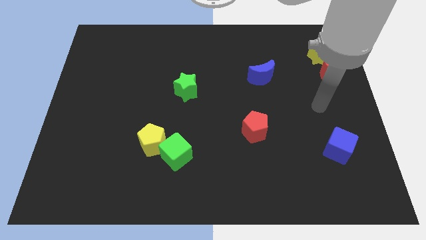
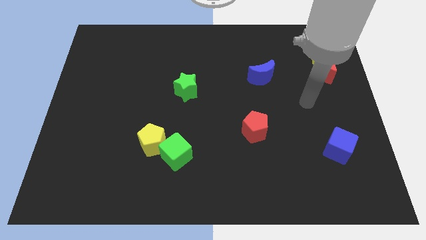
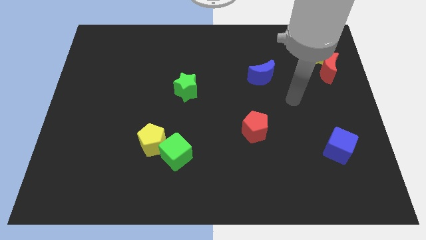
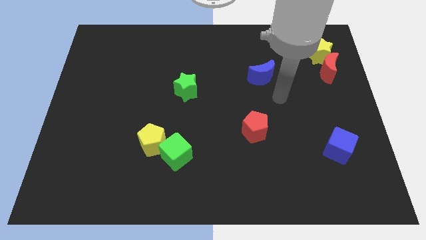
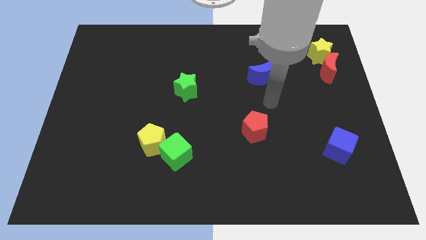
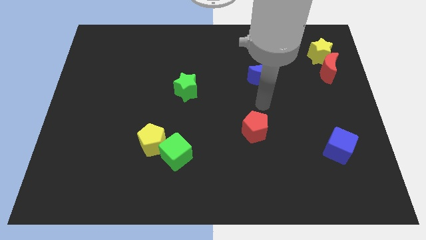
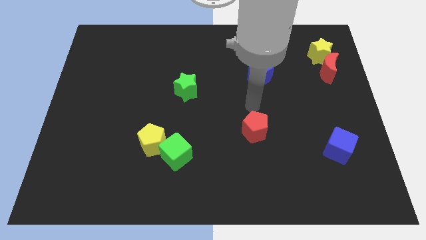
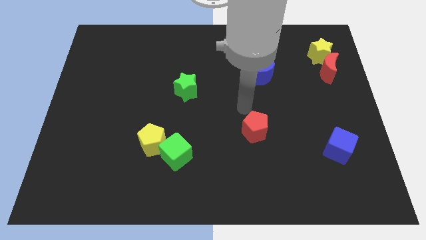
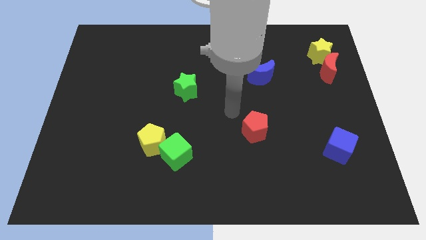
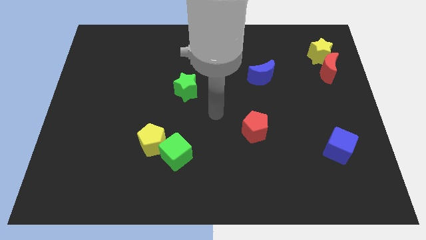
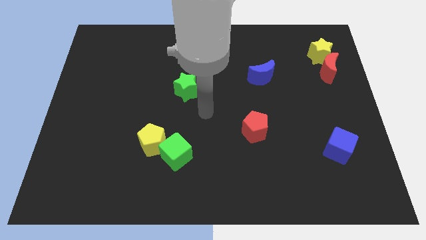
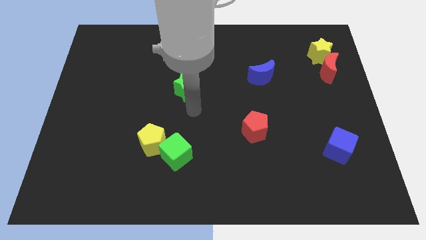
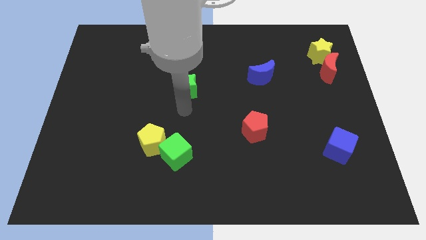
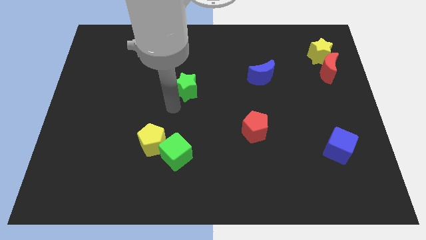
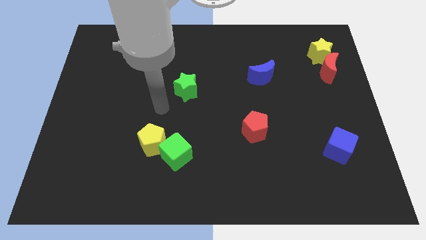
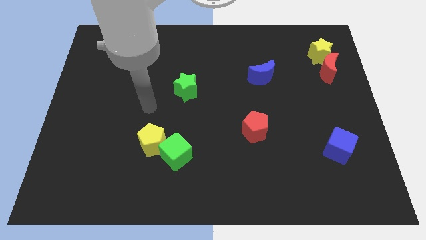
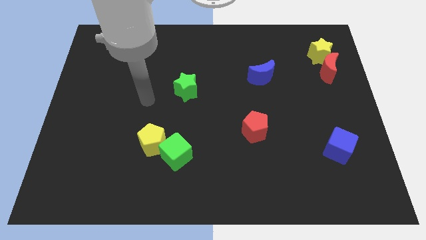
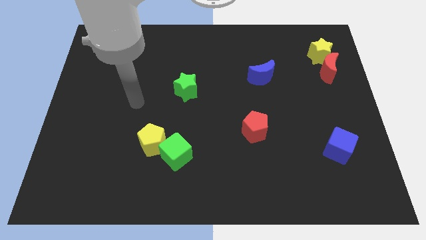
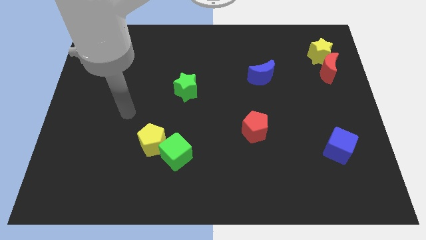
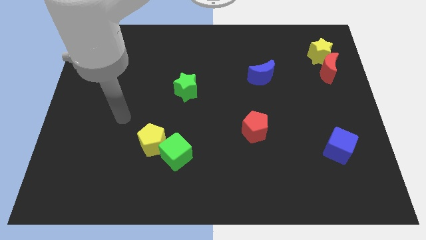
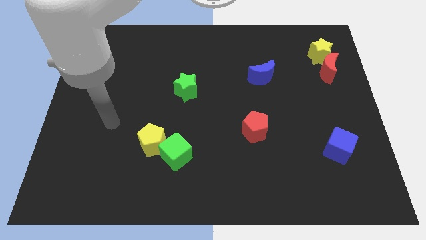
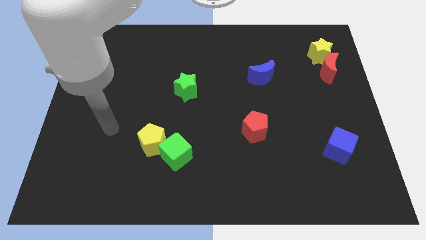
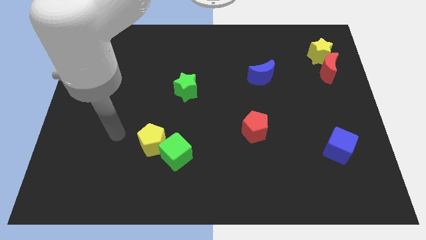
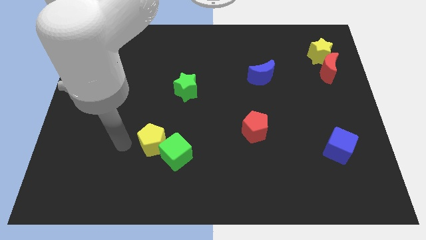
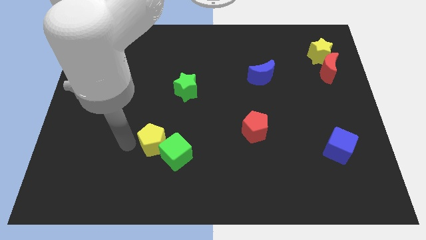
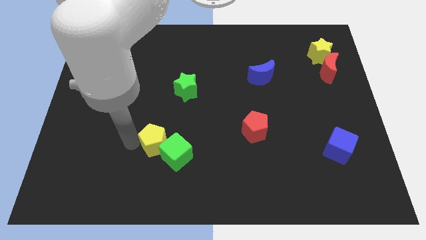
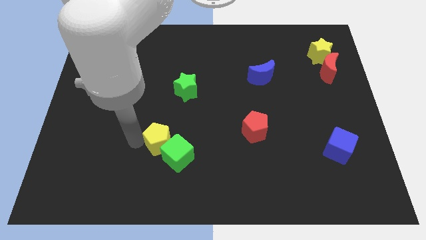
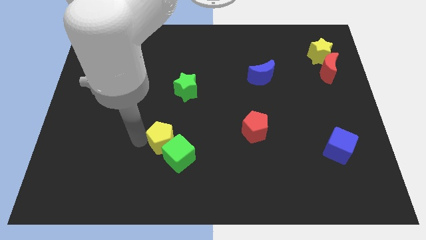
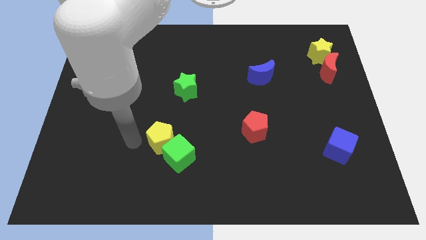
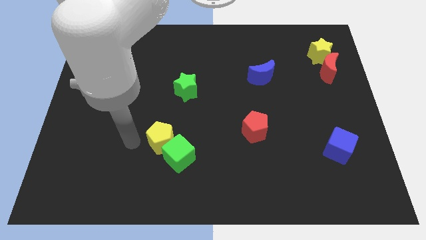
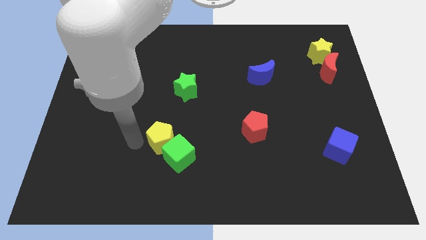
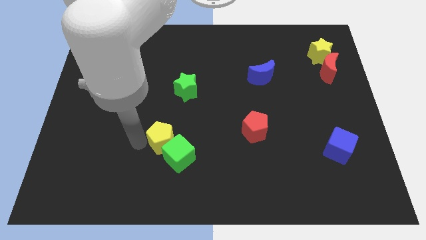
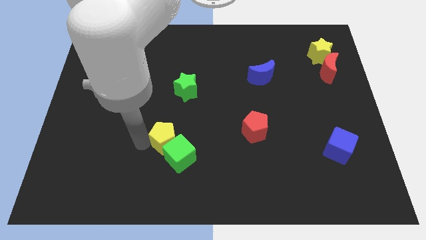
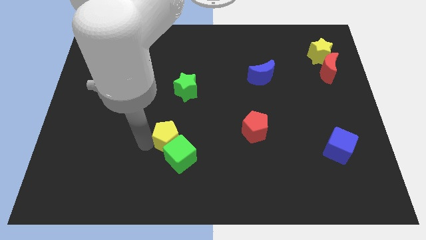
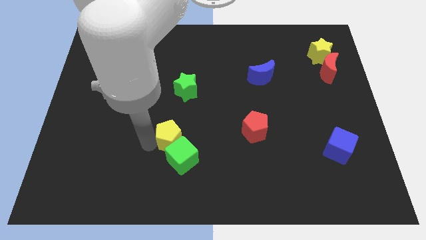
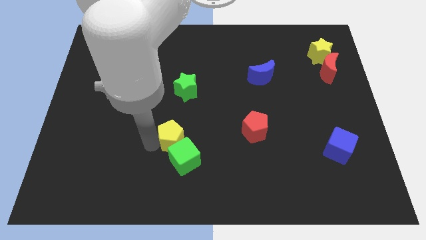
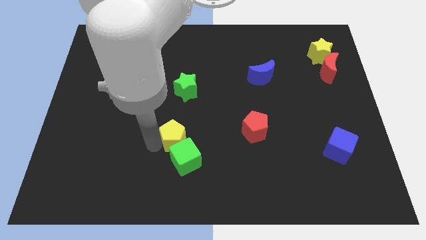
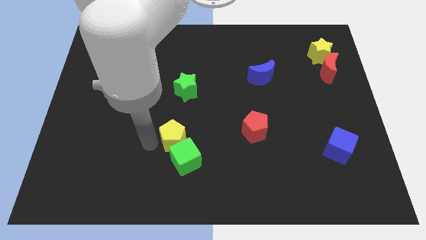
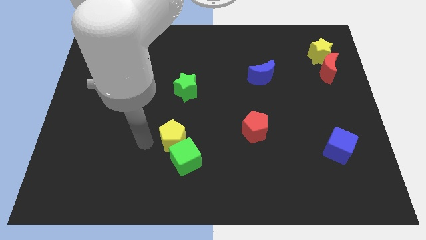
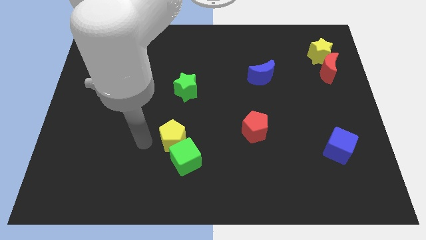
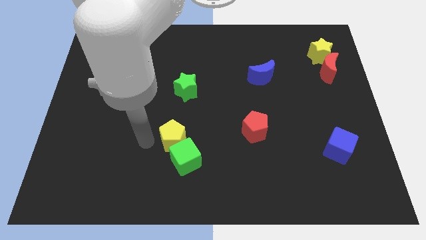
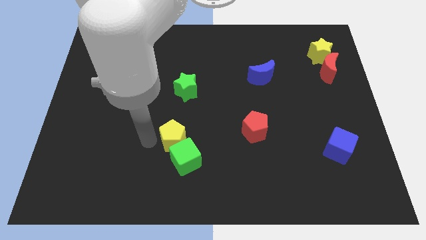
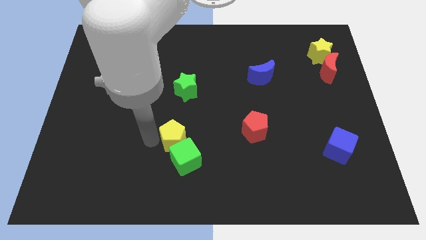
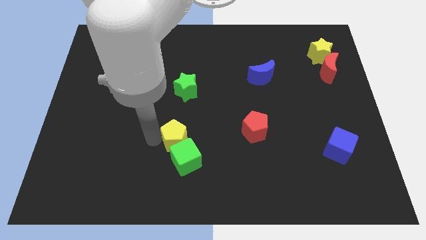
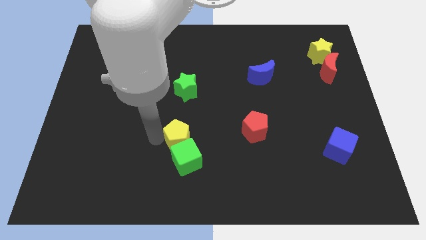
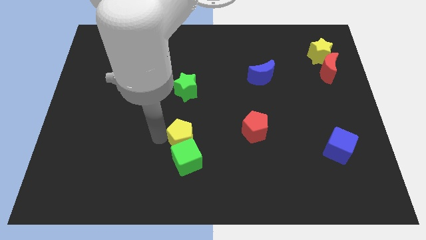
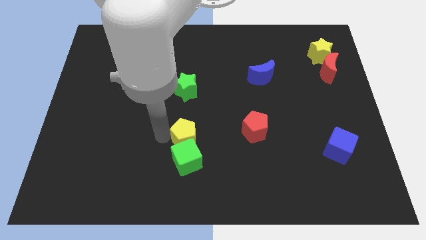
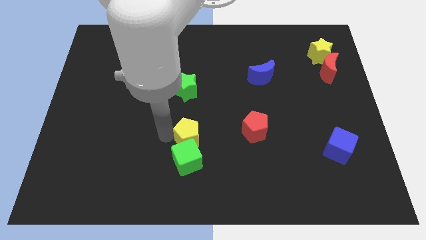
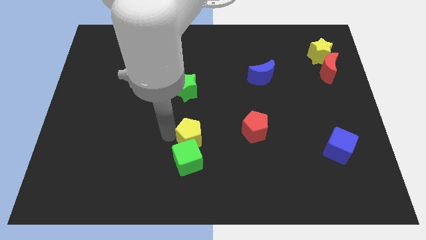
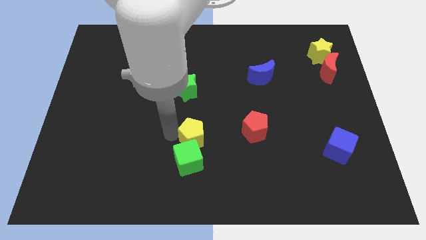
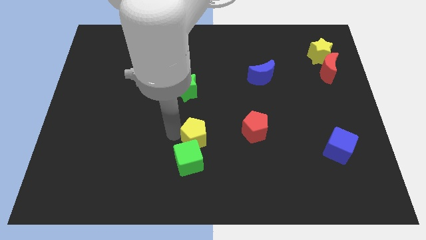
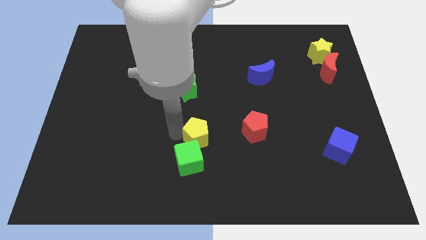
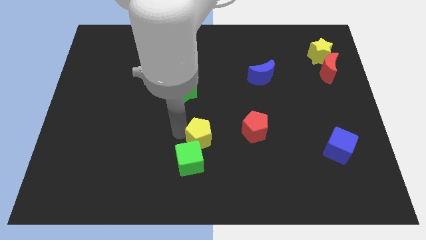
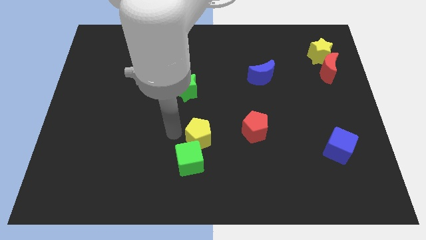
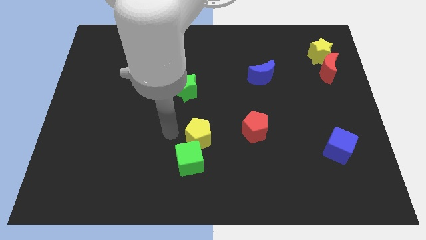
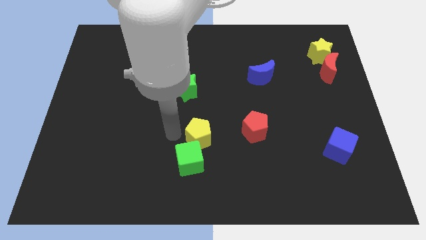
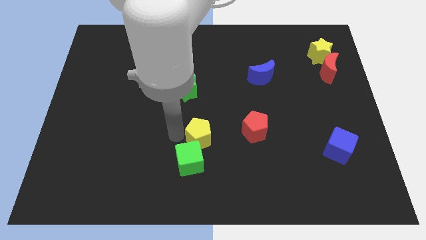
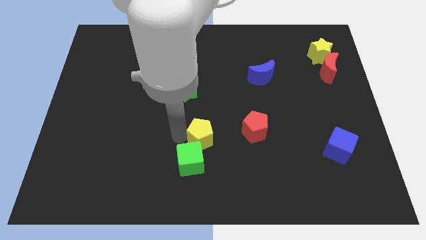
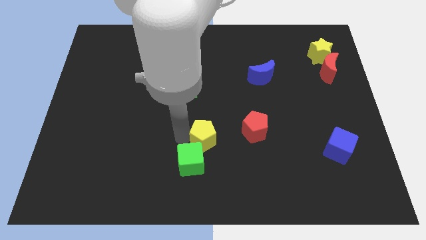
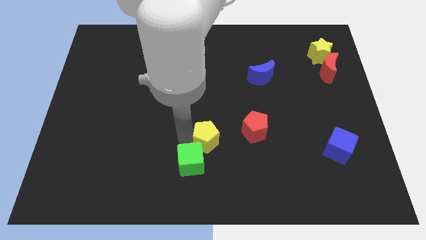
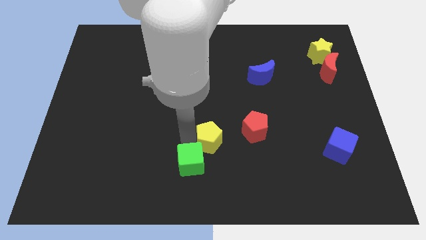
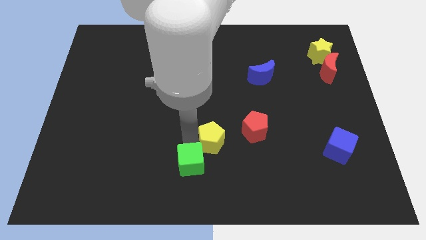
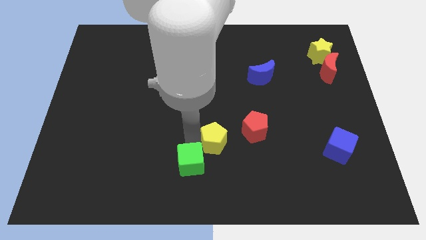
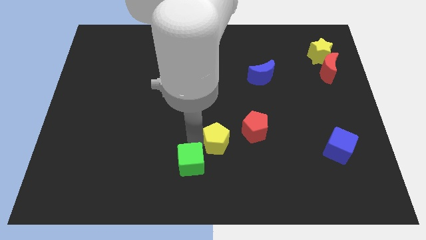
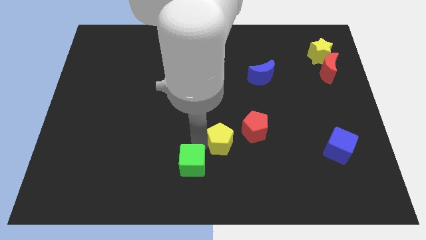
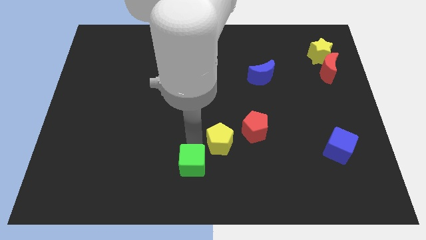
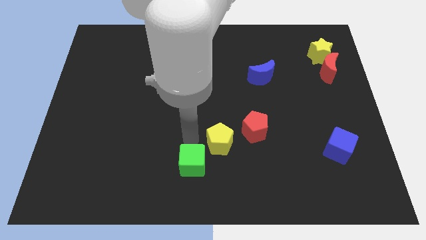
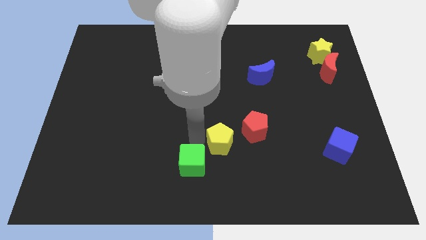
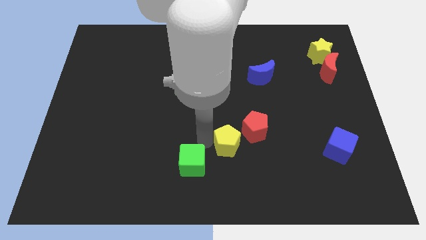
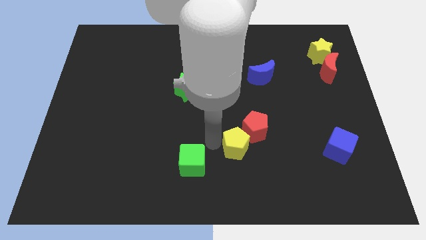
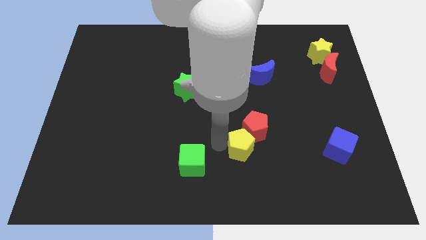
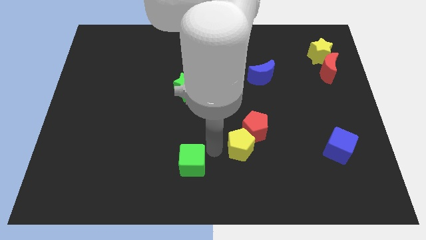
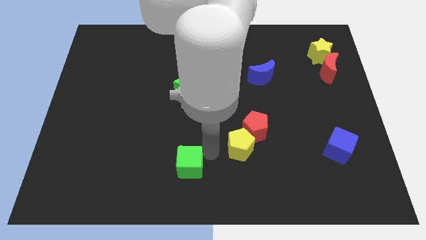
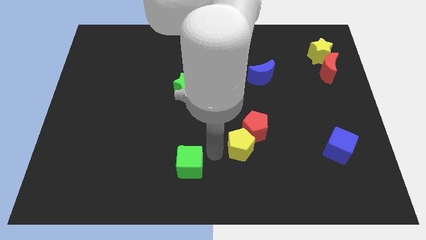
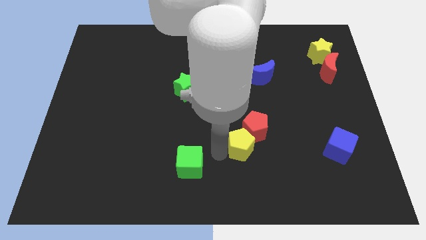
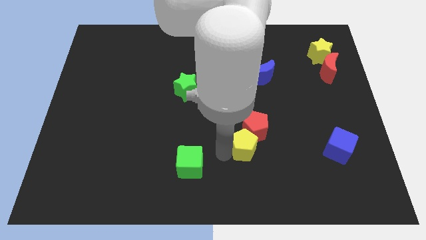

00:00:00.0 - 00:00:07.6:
slide the yellow pentagon to the right
